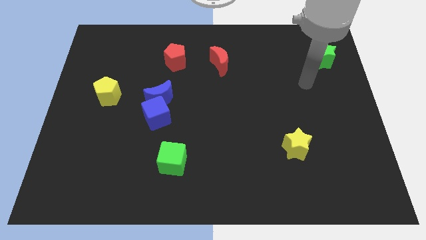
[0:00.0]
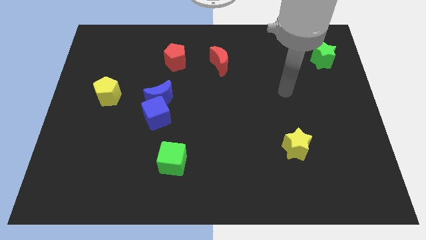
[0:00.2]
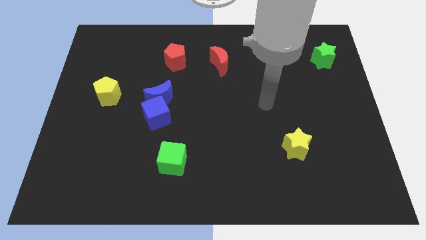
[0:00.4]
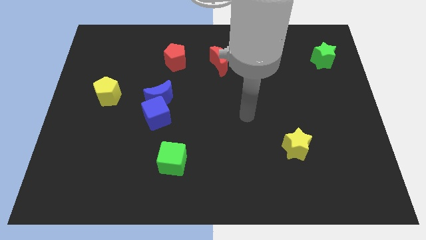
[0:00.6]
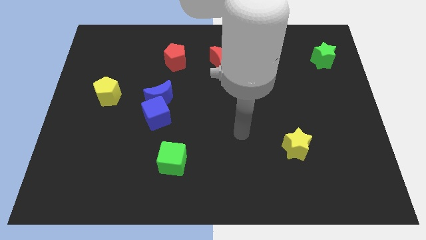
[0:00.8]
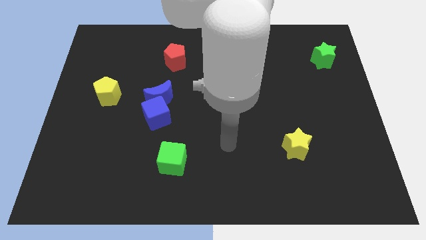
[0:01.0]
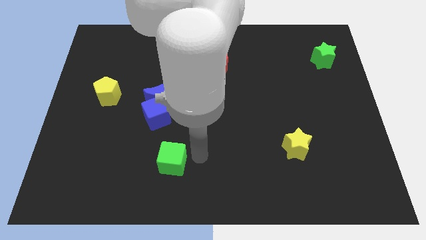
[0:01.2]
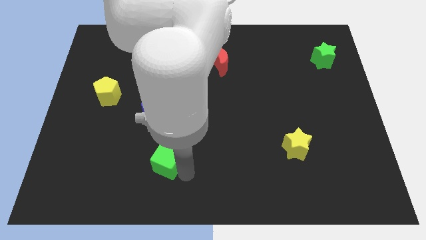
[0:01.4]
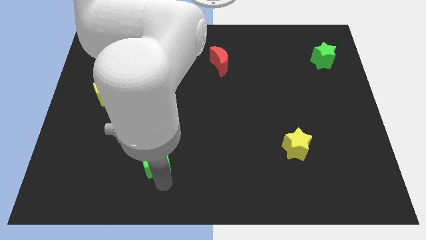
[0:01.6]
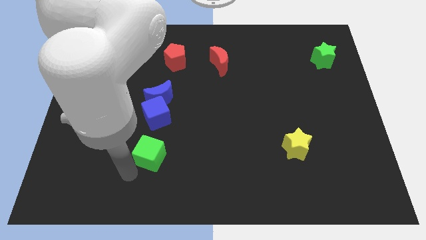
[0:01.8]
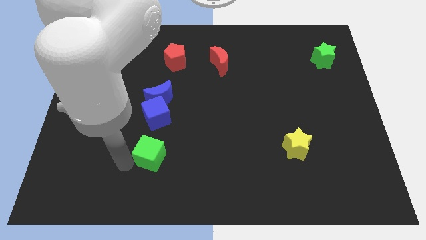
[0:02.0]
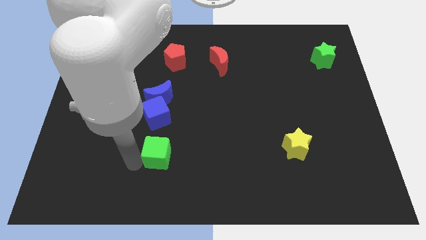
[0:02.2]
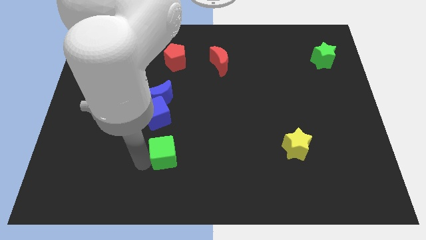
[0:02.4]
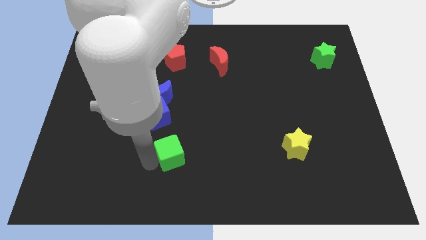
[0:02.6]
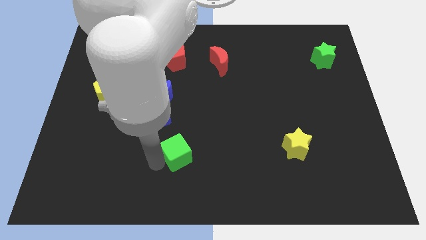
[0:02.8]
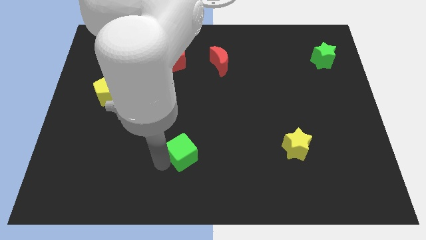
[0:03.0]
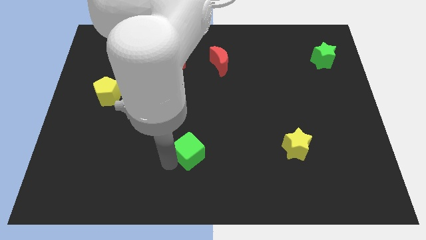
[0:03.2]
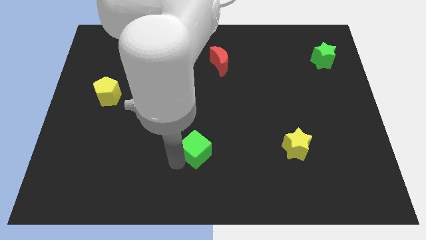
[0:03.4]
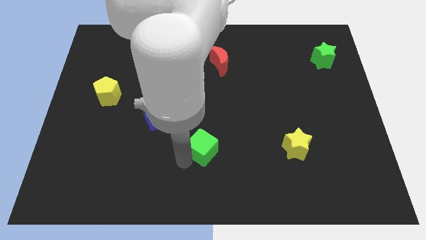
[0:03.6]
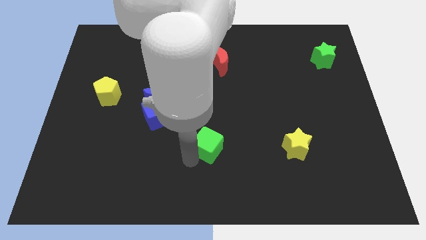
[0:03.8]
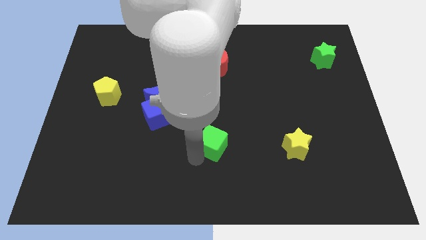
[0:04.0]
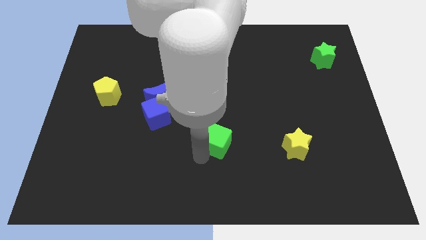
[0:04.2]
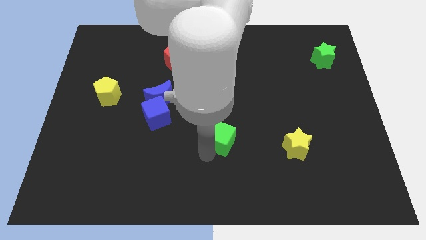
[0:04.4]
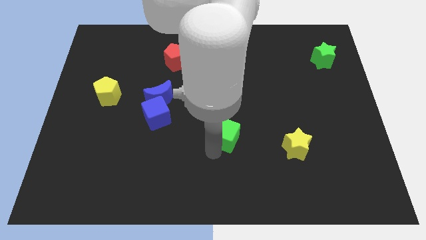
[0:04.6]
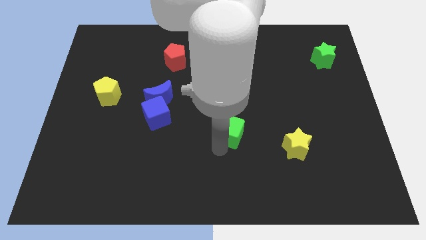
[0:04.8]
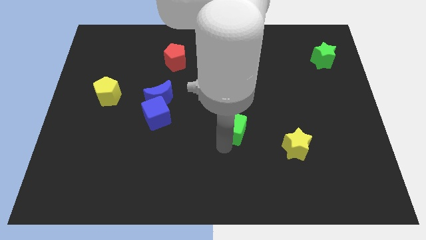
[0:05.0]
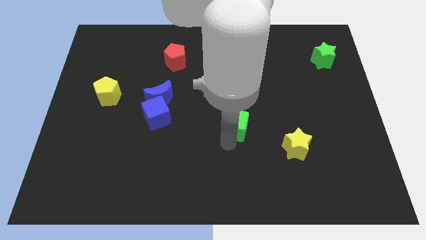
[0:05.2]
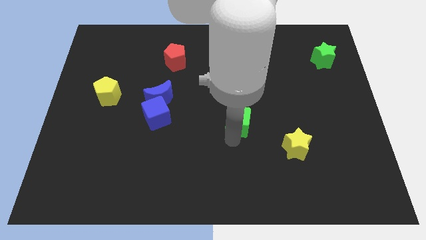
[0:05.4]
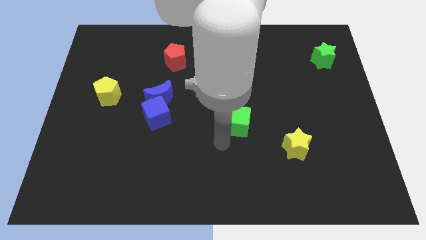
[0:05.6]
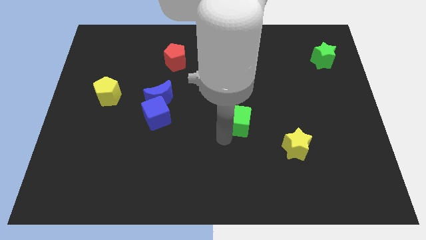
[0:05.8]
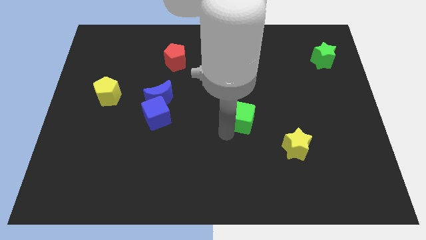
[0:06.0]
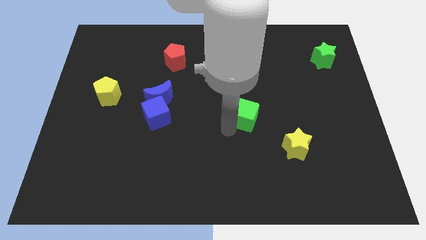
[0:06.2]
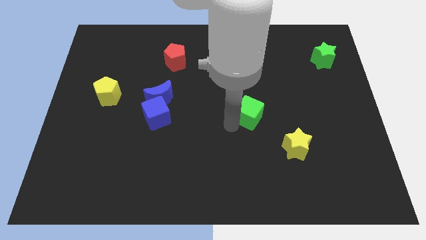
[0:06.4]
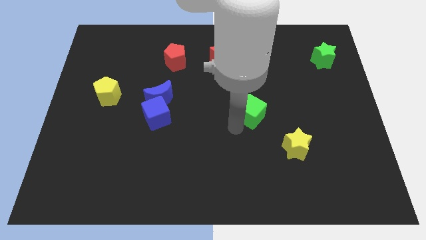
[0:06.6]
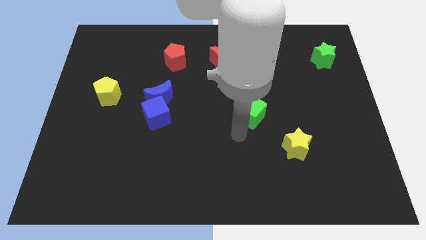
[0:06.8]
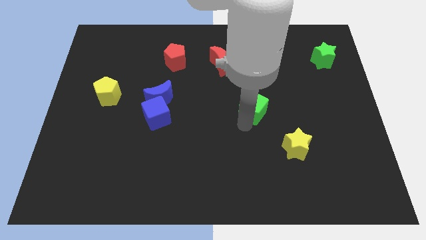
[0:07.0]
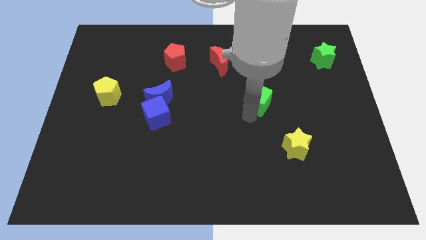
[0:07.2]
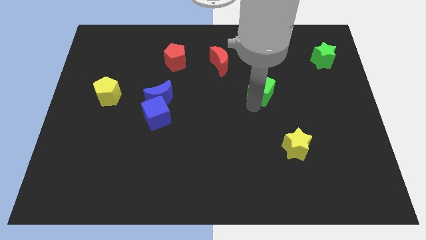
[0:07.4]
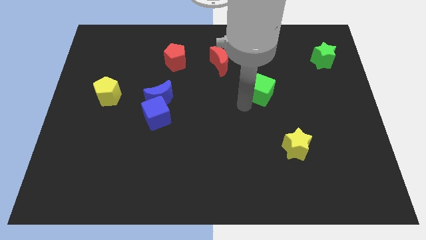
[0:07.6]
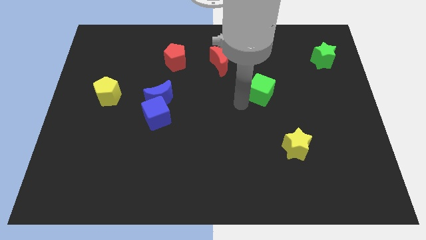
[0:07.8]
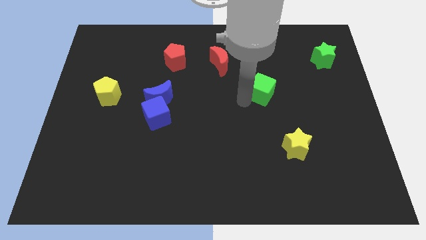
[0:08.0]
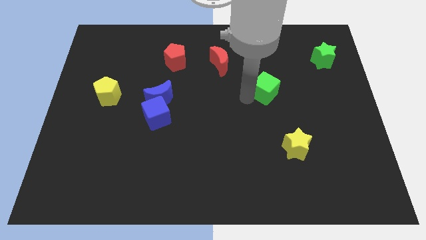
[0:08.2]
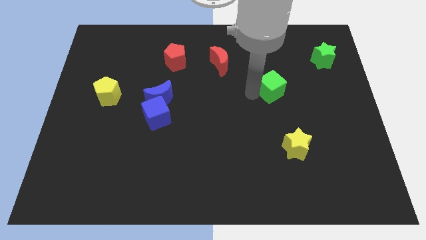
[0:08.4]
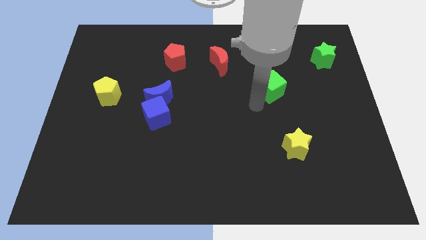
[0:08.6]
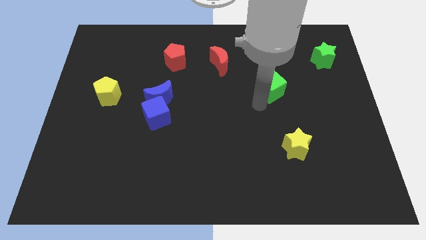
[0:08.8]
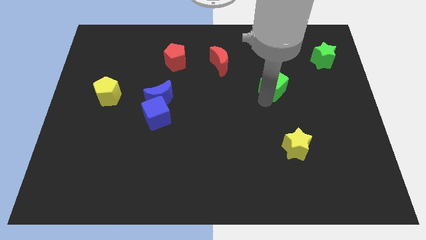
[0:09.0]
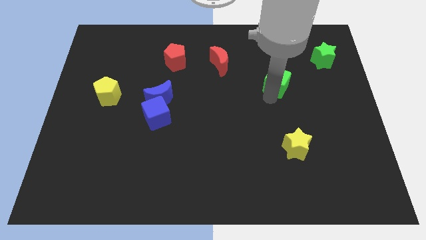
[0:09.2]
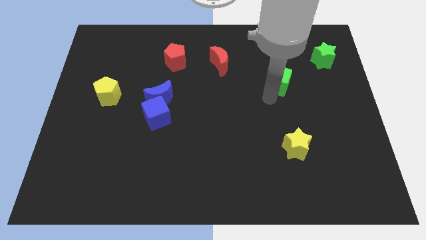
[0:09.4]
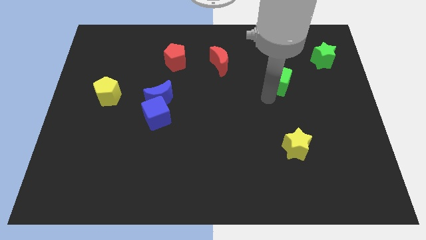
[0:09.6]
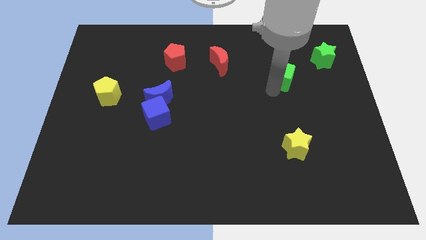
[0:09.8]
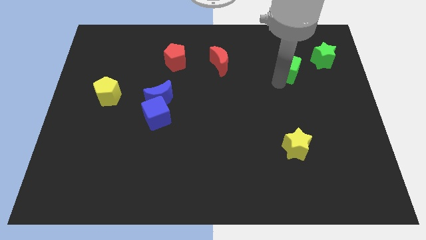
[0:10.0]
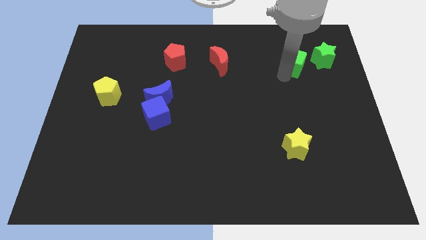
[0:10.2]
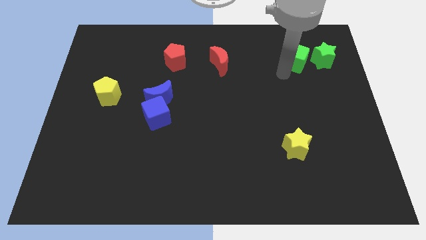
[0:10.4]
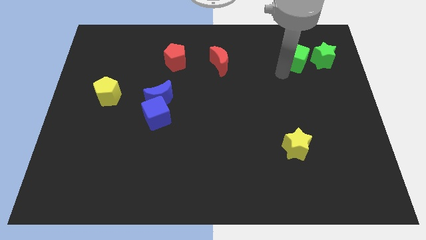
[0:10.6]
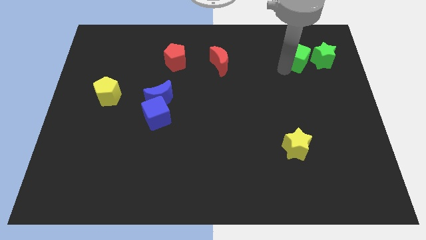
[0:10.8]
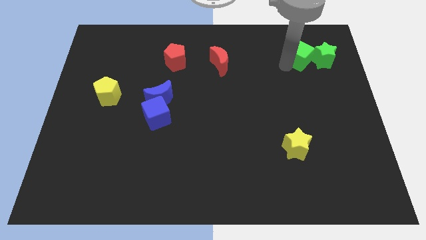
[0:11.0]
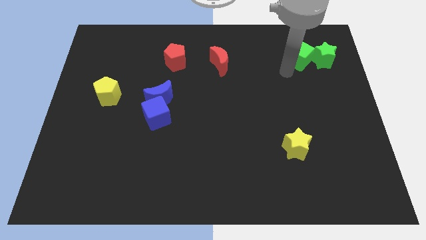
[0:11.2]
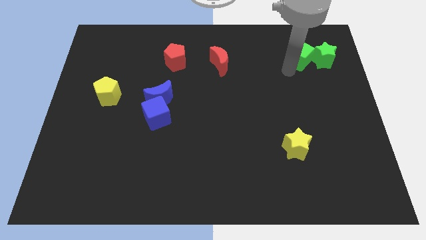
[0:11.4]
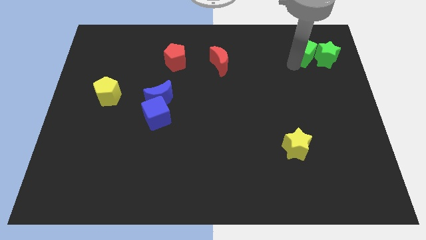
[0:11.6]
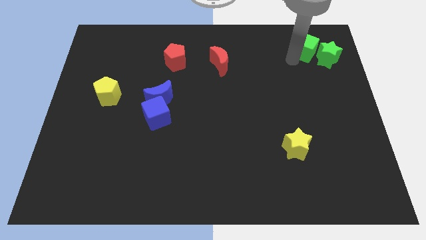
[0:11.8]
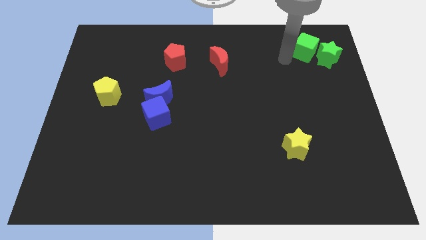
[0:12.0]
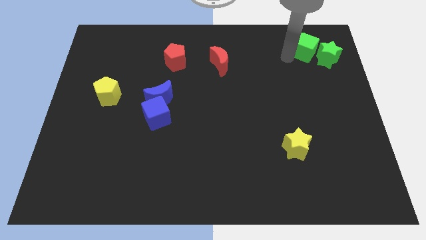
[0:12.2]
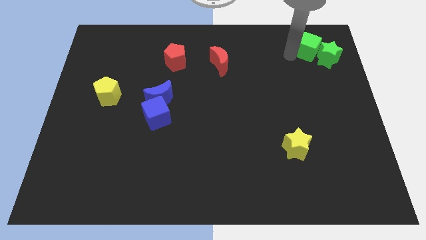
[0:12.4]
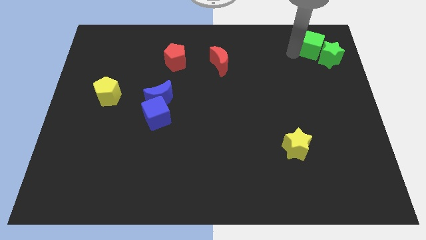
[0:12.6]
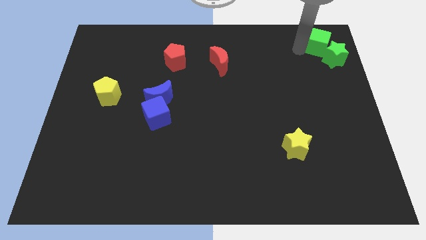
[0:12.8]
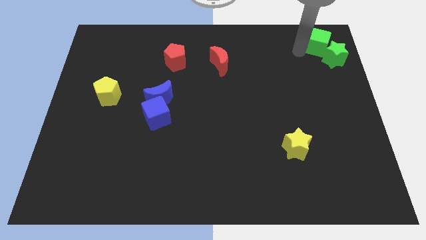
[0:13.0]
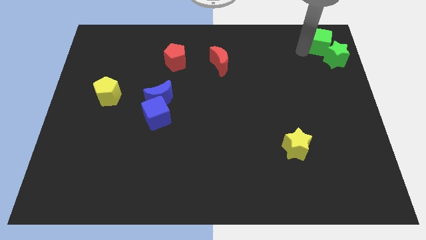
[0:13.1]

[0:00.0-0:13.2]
slide the green cube to the top right

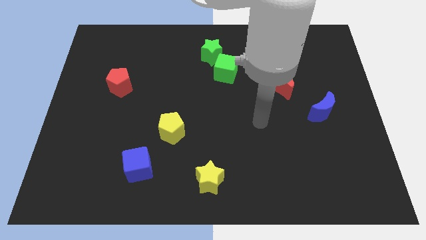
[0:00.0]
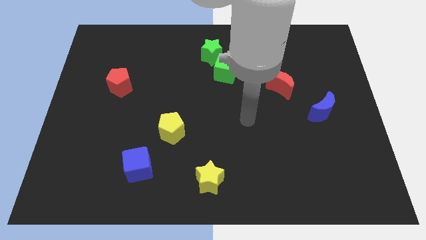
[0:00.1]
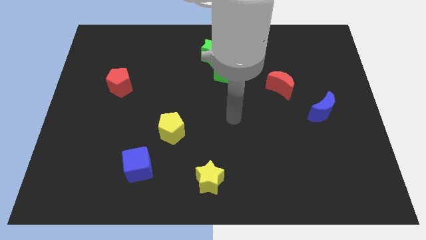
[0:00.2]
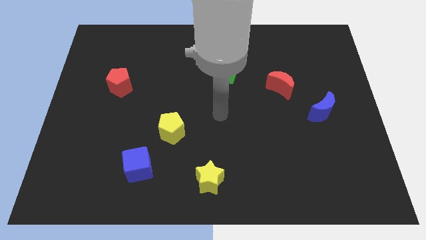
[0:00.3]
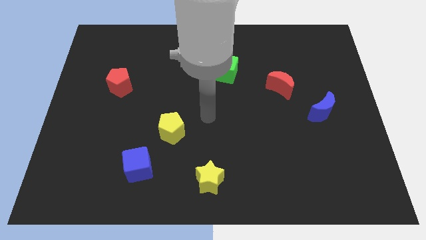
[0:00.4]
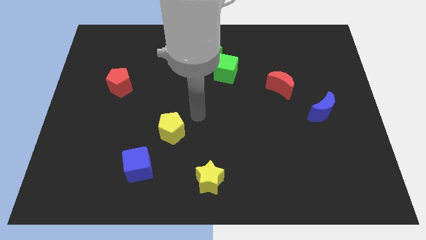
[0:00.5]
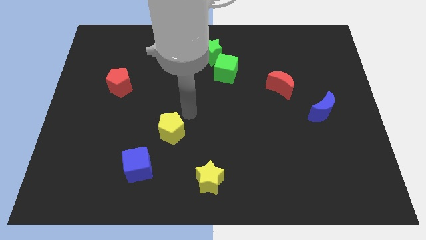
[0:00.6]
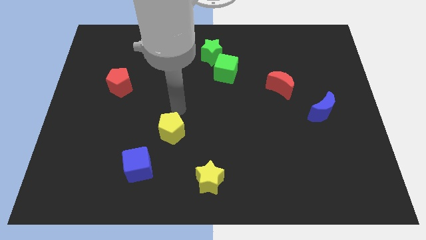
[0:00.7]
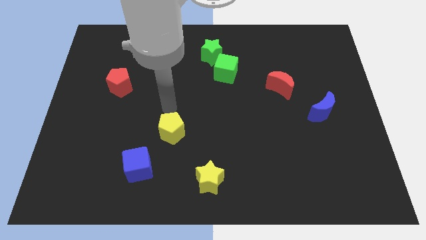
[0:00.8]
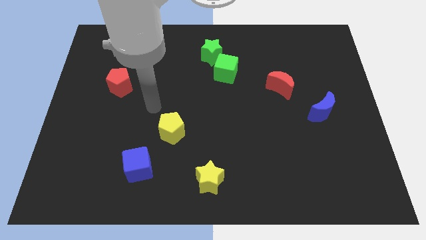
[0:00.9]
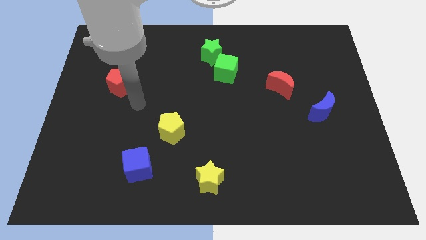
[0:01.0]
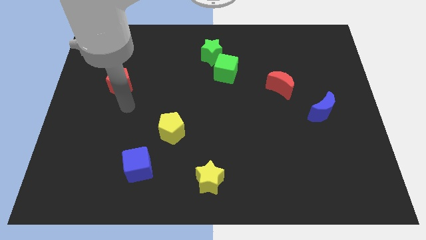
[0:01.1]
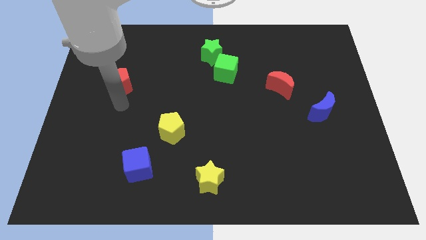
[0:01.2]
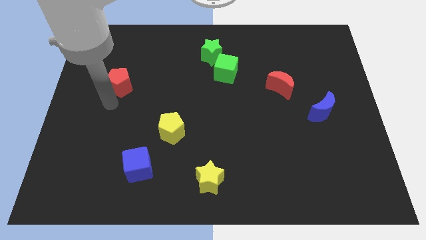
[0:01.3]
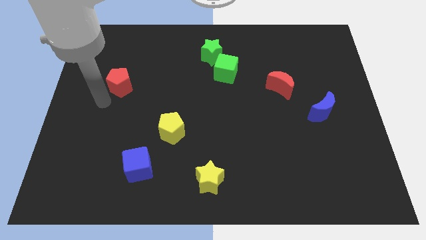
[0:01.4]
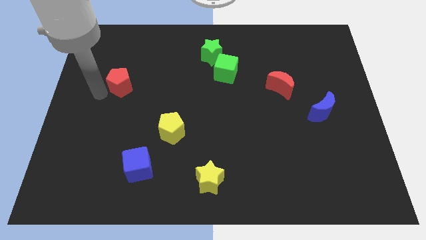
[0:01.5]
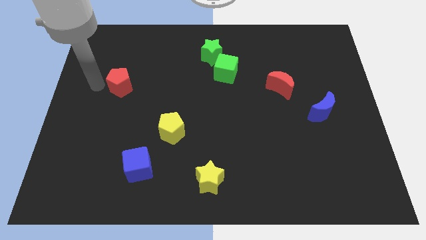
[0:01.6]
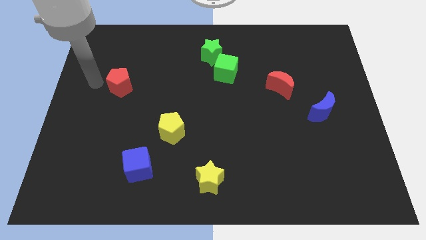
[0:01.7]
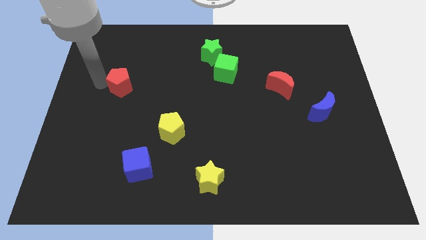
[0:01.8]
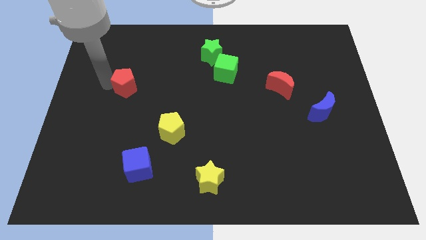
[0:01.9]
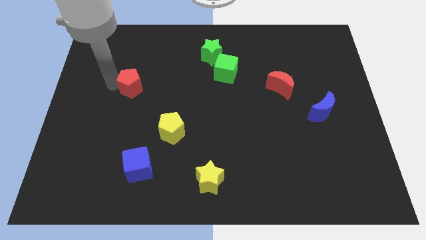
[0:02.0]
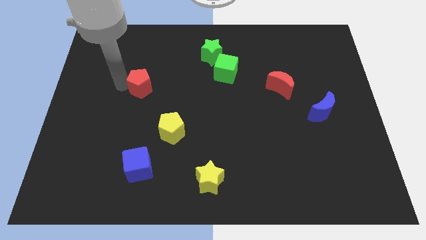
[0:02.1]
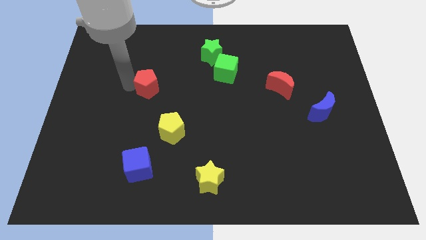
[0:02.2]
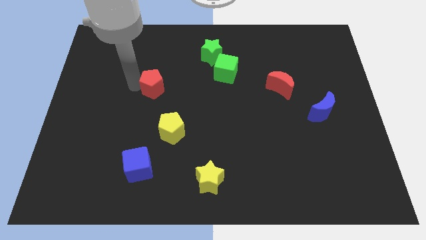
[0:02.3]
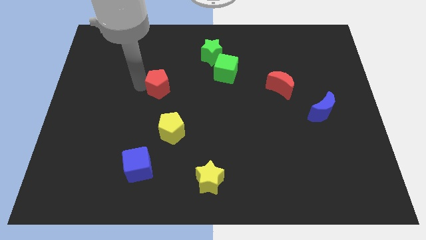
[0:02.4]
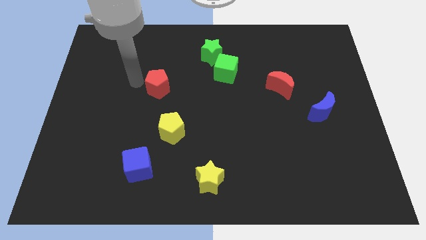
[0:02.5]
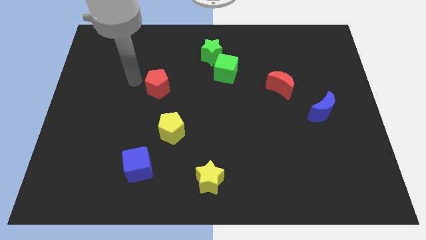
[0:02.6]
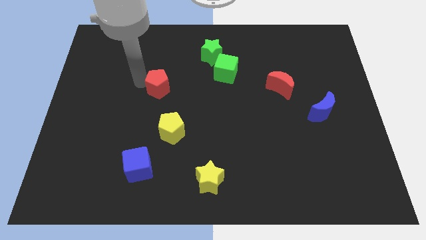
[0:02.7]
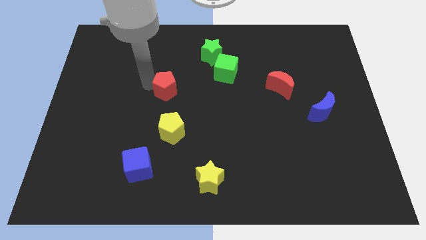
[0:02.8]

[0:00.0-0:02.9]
push the red pentagon to the middle
